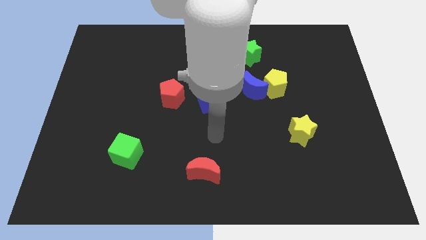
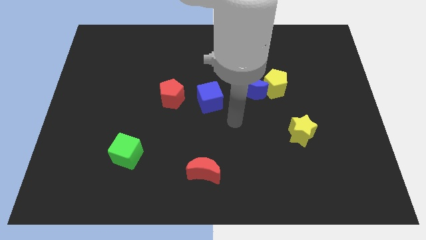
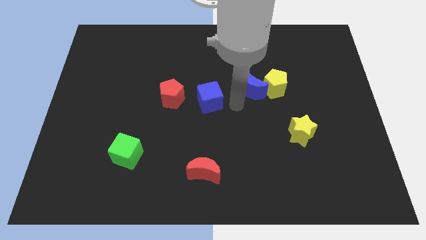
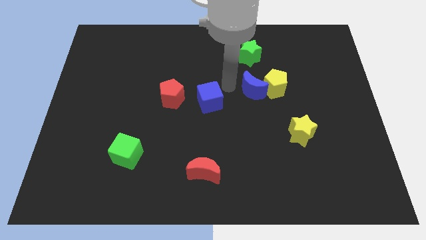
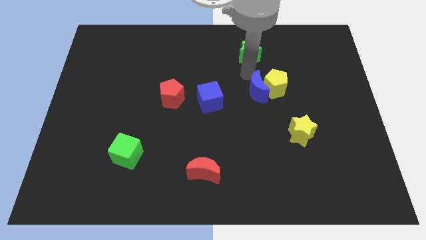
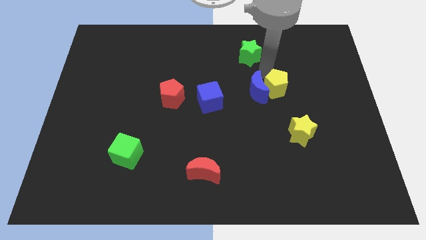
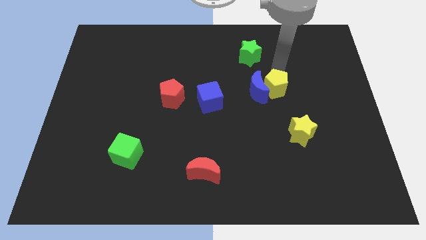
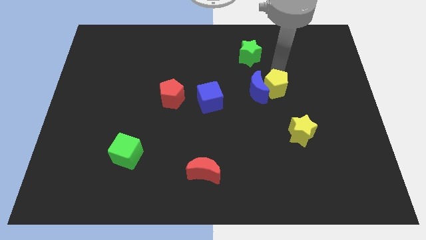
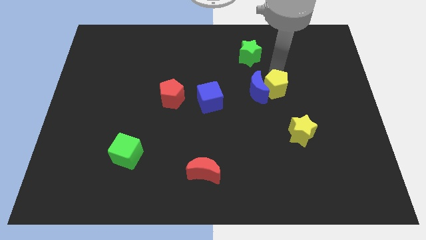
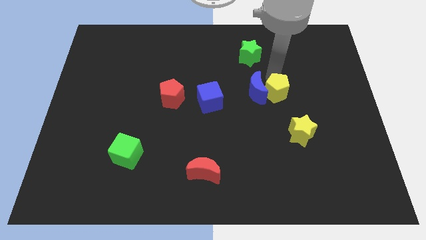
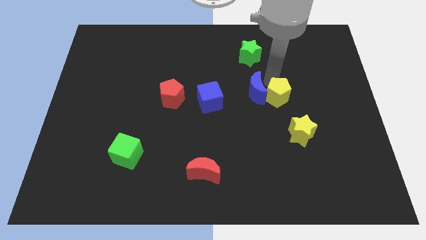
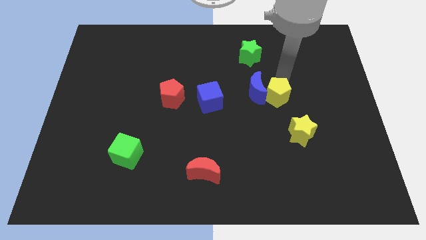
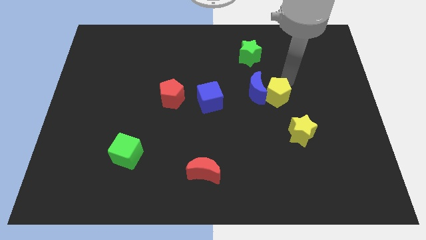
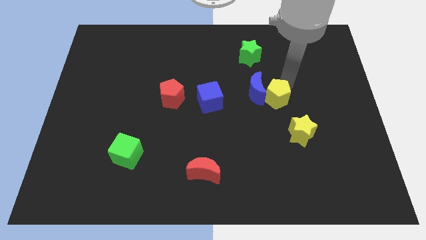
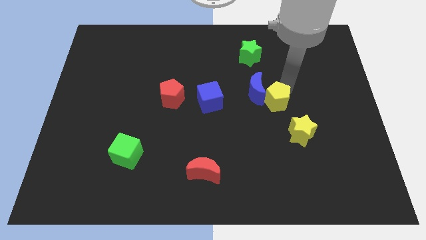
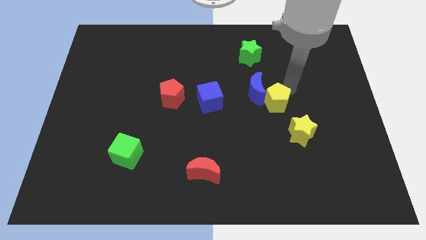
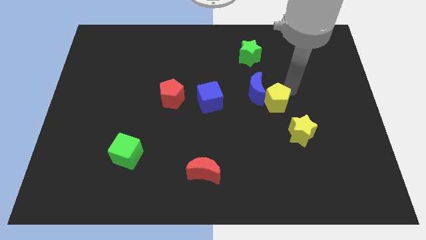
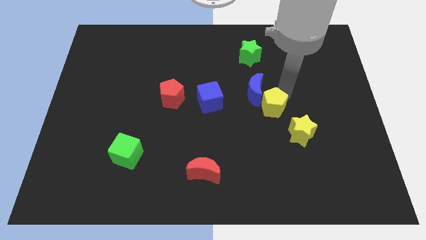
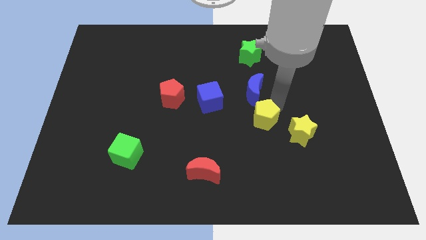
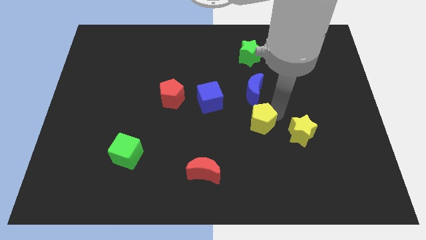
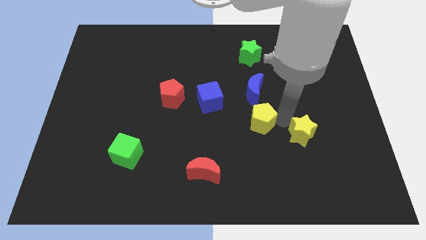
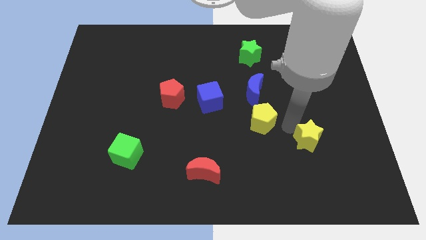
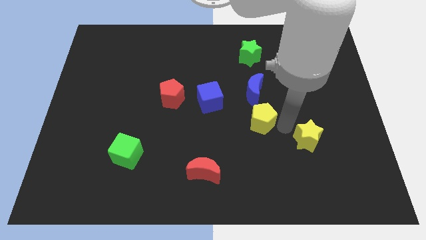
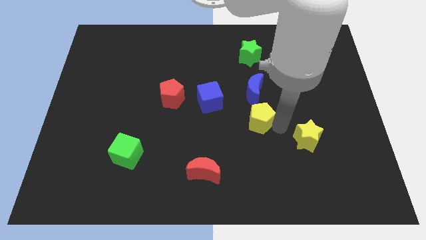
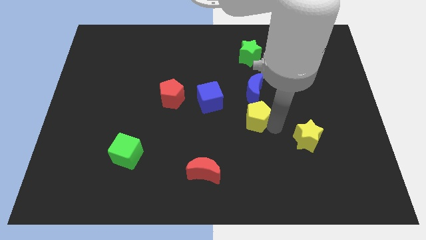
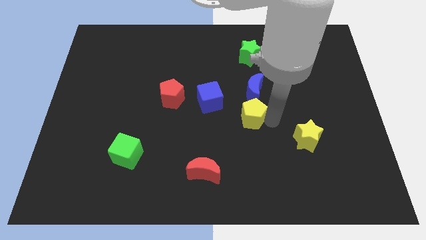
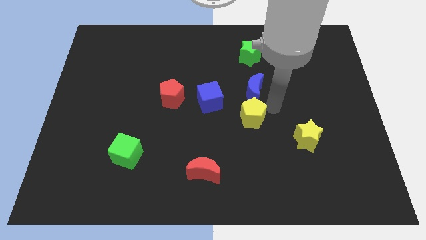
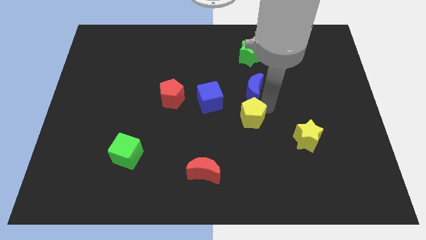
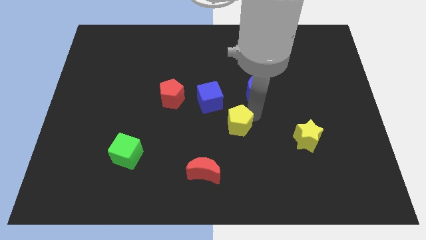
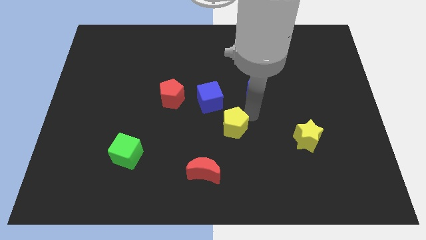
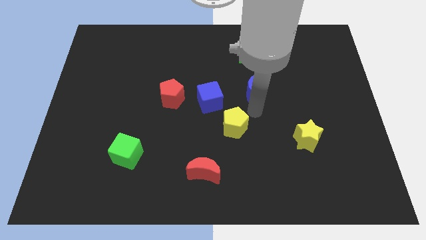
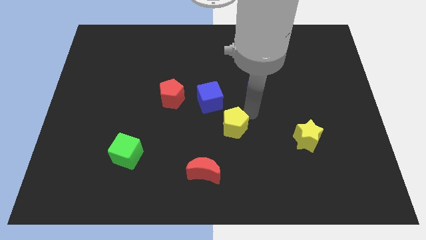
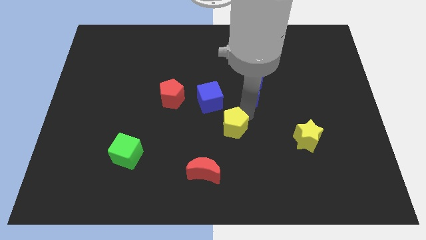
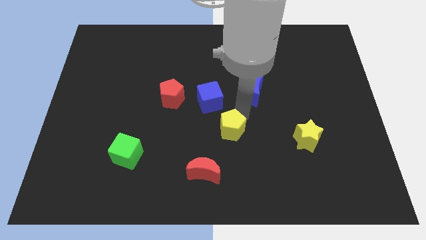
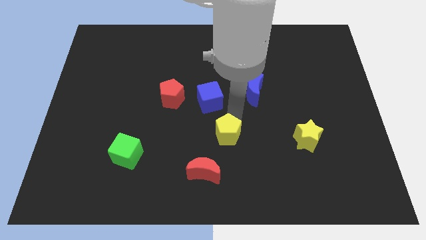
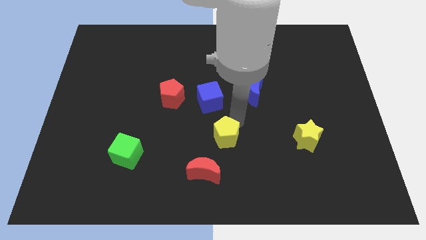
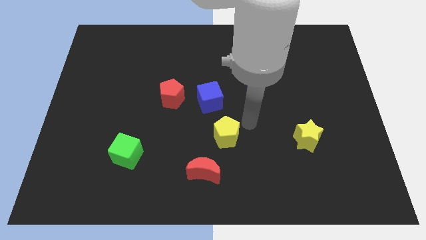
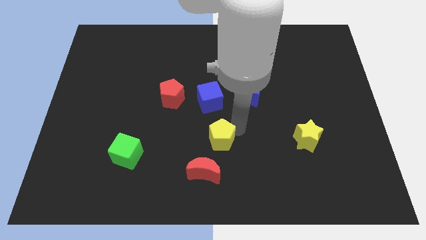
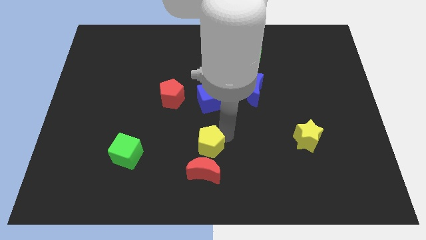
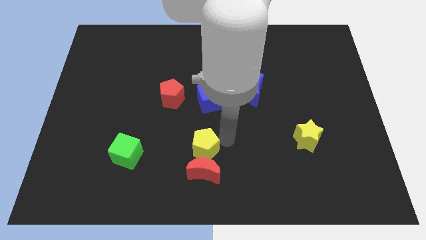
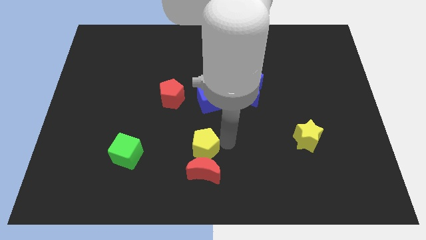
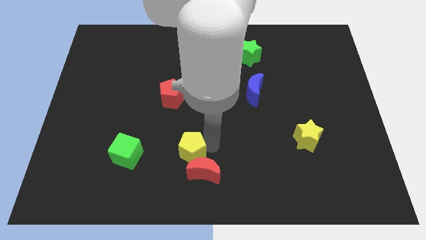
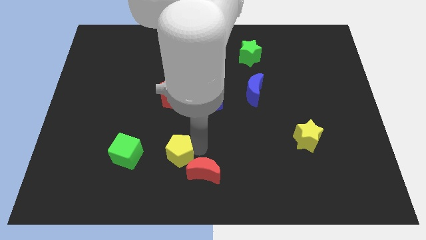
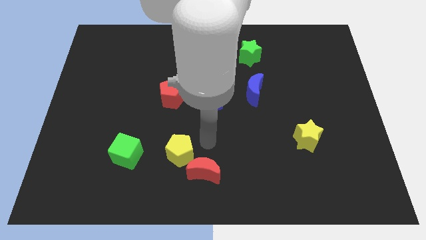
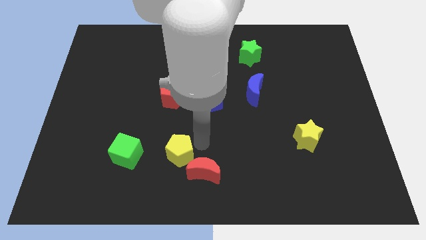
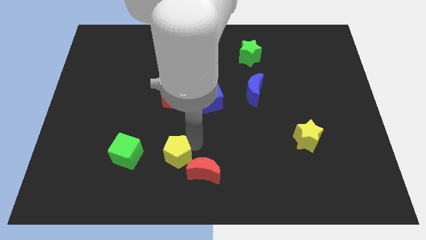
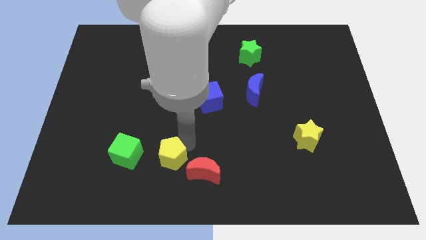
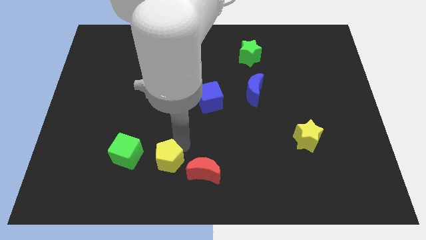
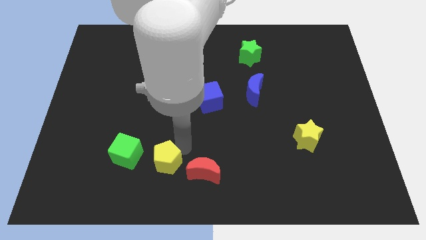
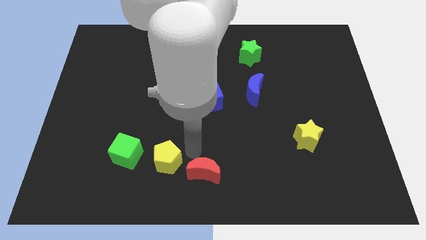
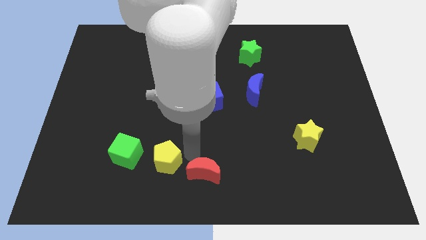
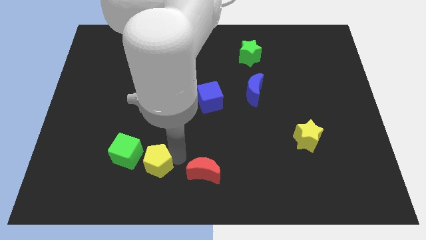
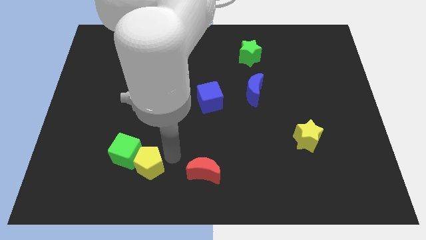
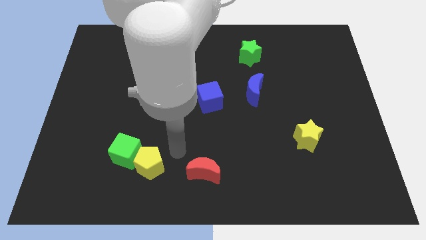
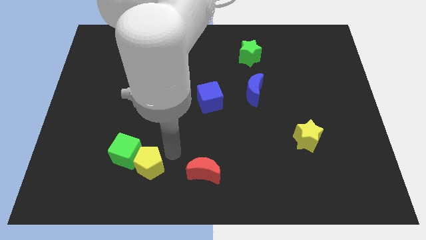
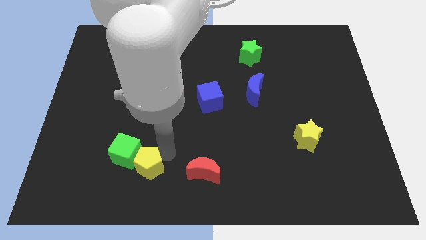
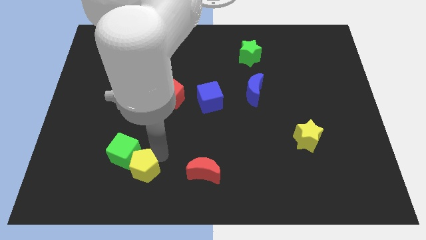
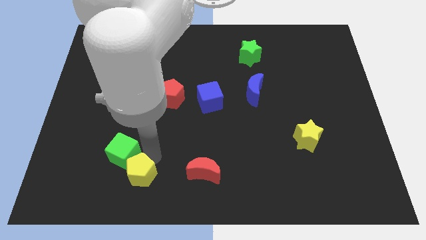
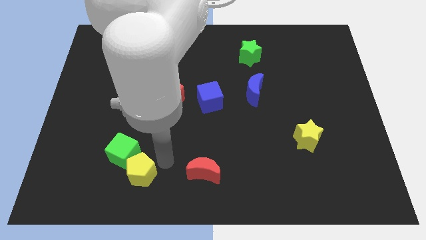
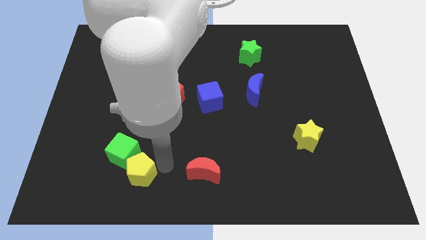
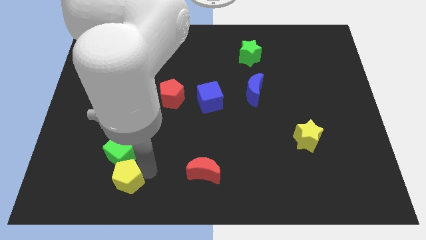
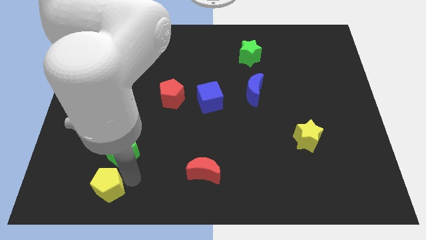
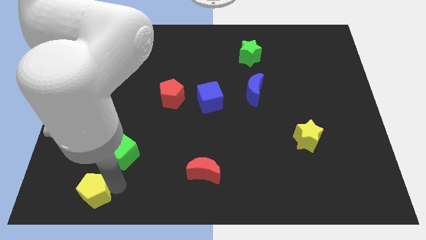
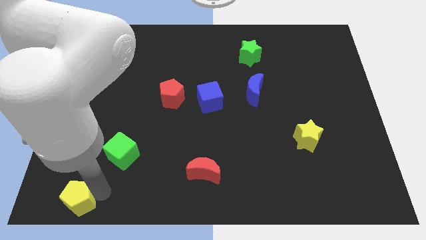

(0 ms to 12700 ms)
slide the yellow pentagon to the lower left corner
